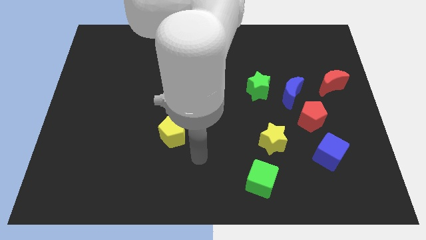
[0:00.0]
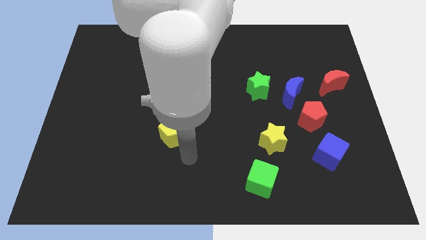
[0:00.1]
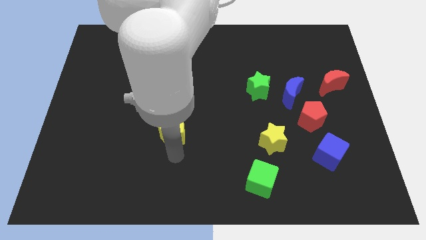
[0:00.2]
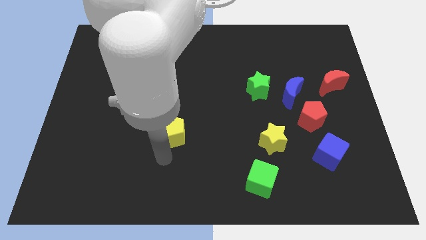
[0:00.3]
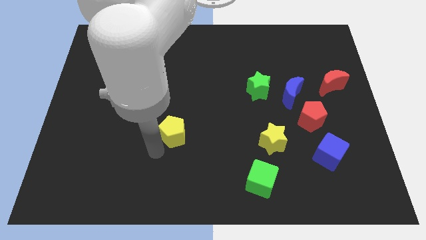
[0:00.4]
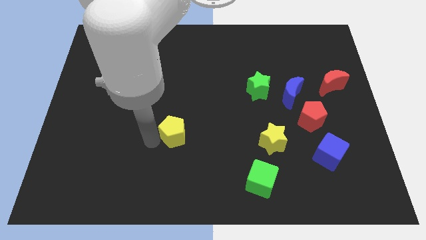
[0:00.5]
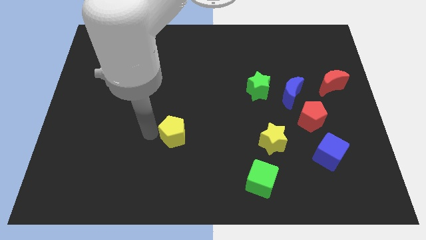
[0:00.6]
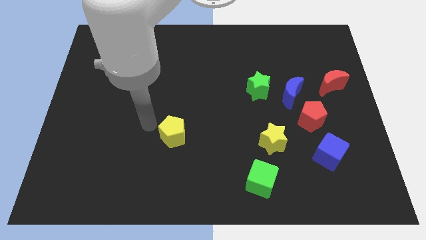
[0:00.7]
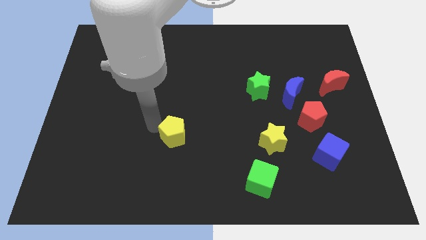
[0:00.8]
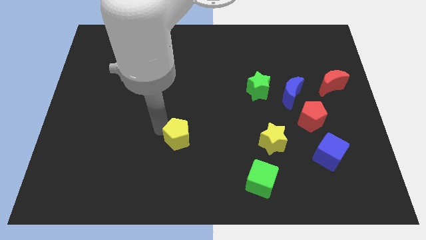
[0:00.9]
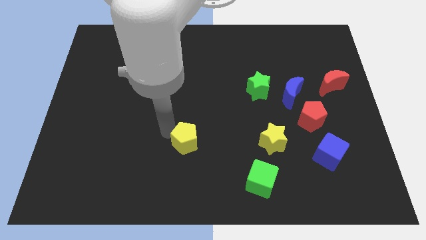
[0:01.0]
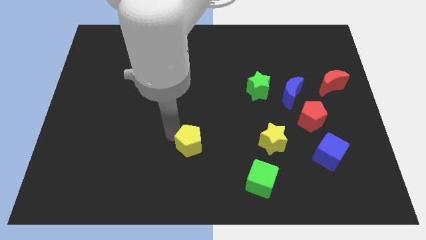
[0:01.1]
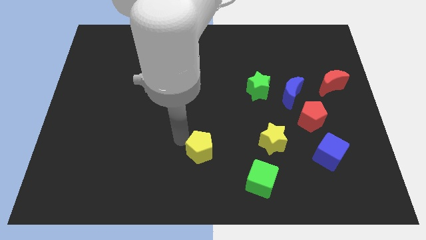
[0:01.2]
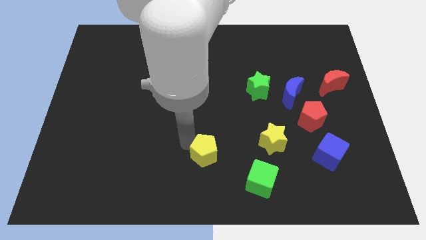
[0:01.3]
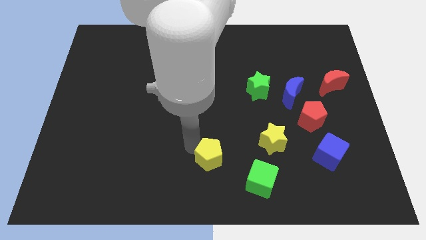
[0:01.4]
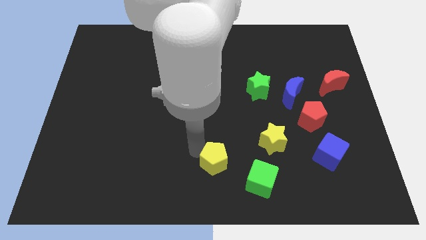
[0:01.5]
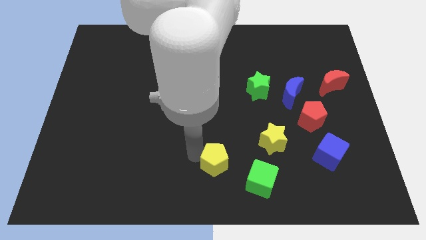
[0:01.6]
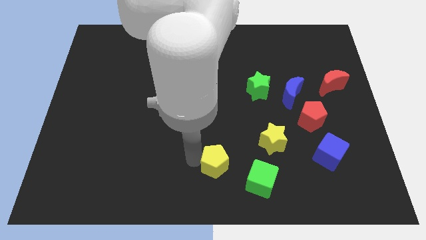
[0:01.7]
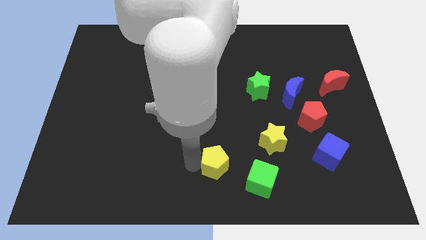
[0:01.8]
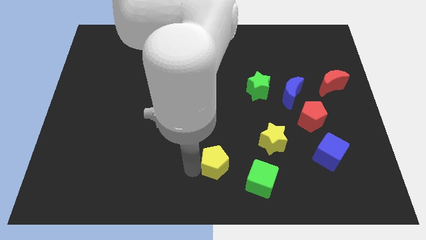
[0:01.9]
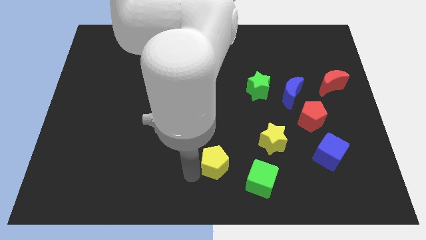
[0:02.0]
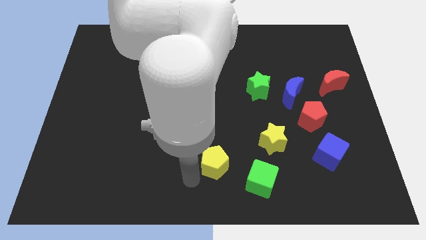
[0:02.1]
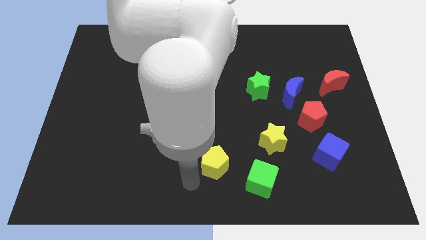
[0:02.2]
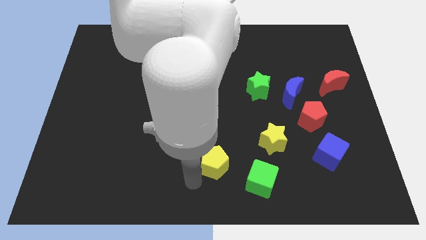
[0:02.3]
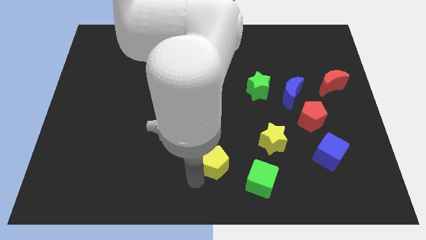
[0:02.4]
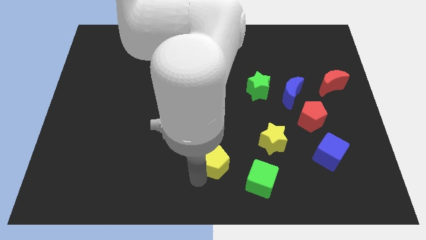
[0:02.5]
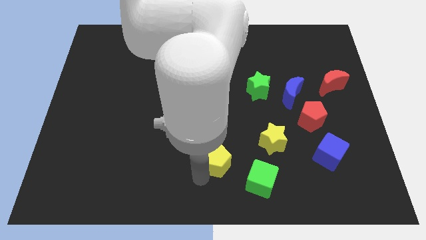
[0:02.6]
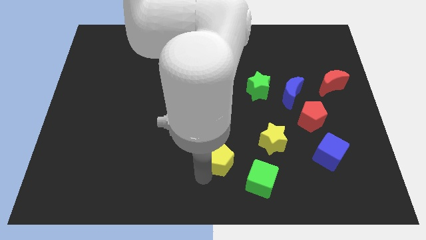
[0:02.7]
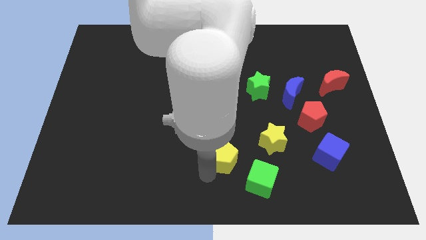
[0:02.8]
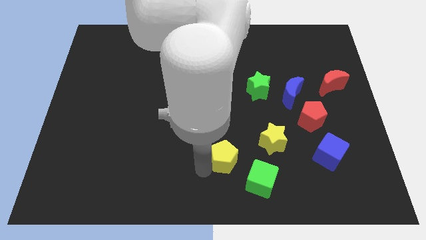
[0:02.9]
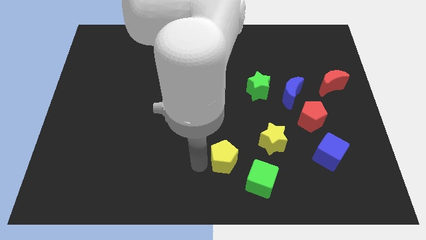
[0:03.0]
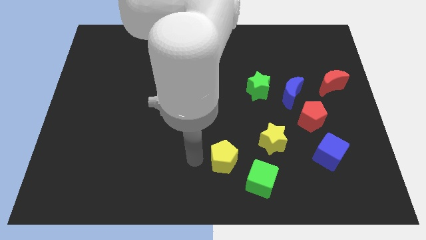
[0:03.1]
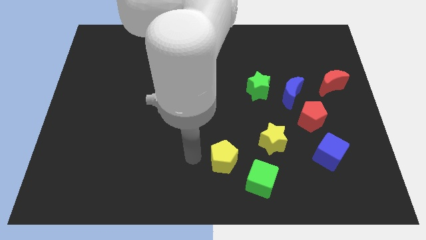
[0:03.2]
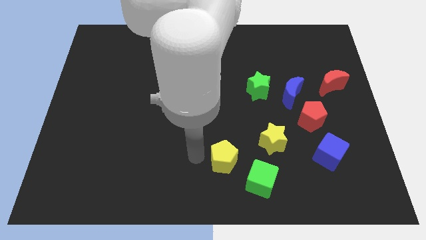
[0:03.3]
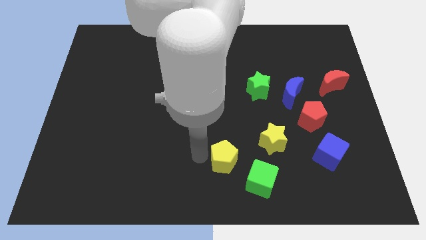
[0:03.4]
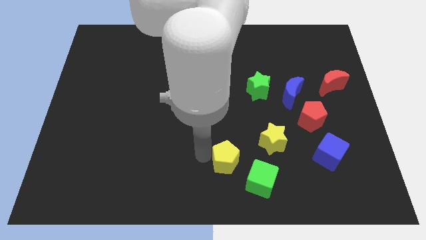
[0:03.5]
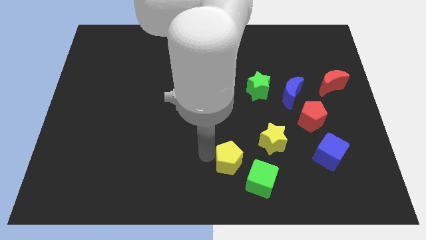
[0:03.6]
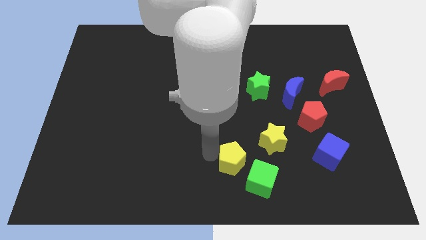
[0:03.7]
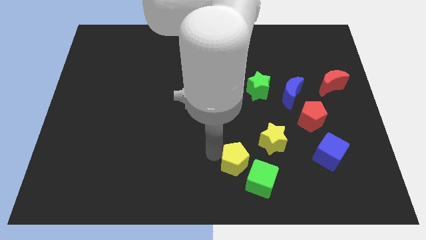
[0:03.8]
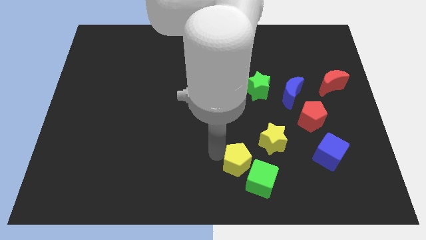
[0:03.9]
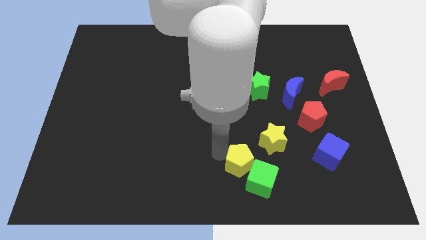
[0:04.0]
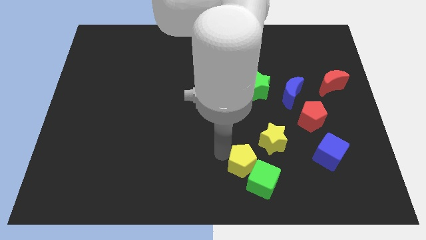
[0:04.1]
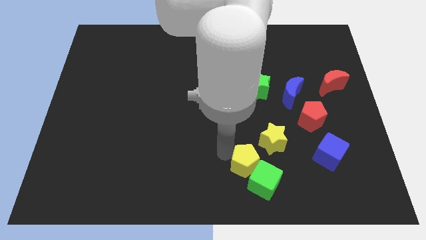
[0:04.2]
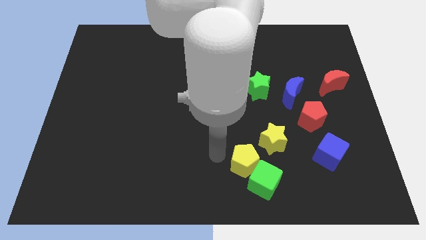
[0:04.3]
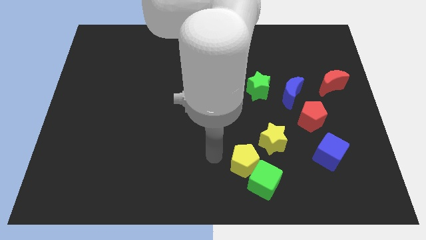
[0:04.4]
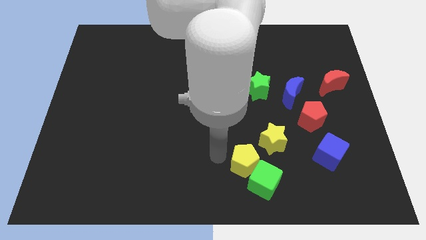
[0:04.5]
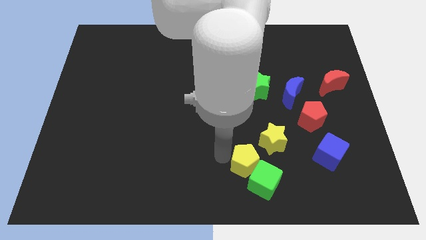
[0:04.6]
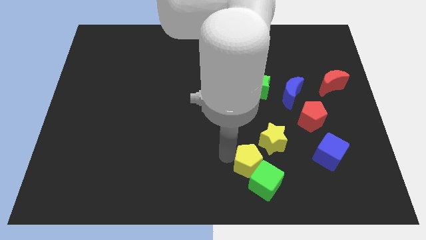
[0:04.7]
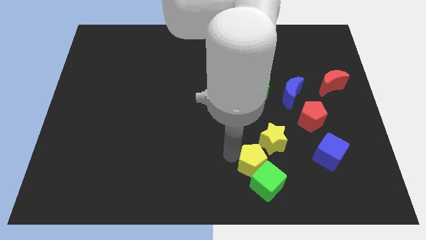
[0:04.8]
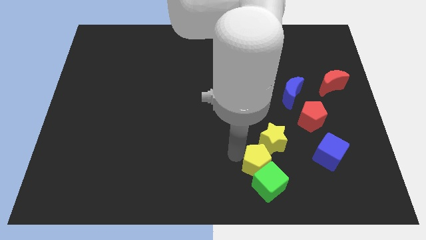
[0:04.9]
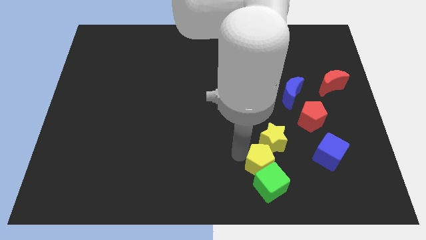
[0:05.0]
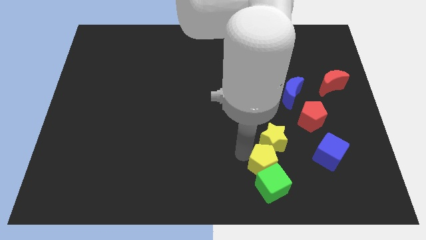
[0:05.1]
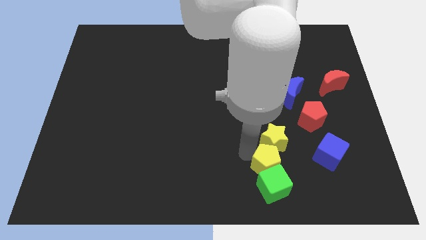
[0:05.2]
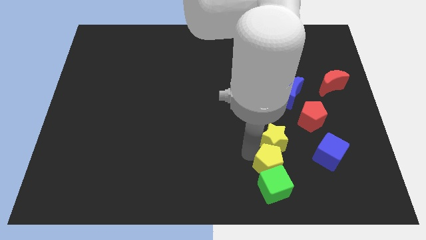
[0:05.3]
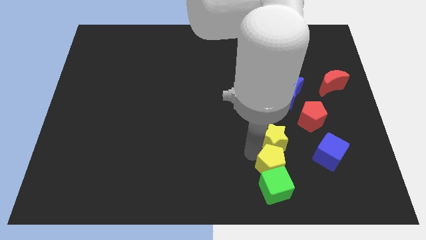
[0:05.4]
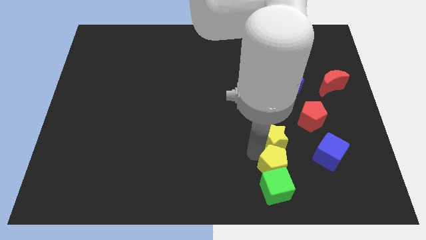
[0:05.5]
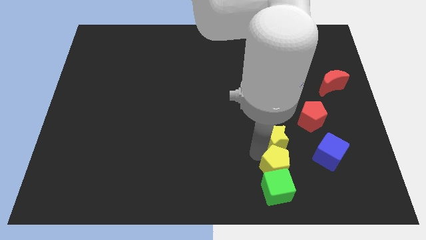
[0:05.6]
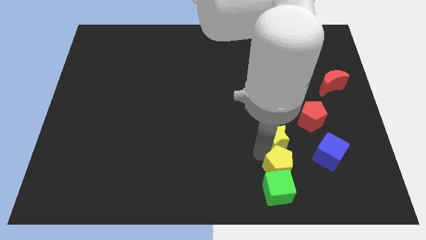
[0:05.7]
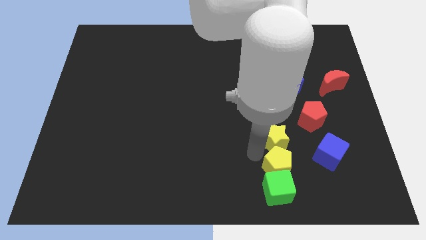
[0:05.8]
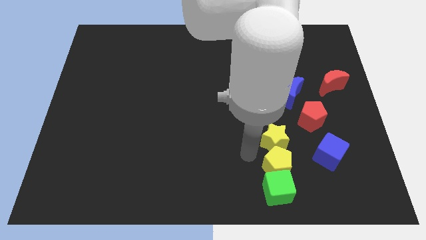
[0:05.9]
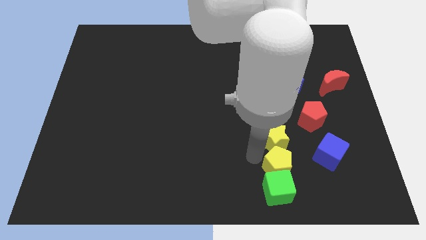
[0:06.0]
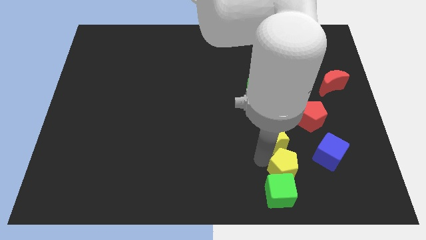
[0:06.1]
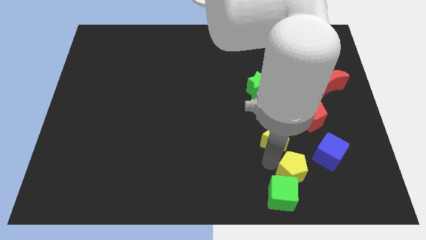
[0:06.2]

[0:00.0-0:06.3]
push the yellow pentagon to the bottom left side of the blue cube
